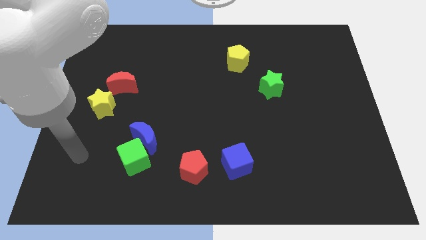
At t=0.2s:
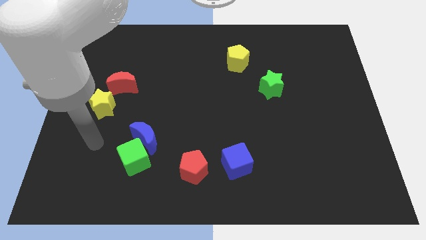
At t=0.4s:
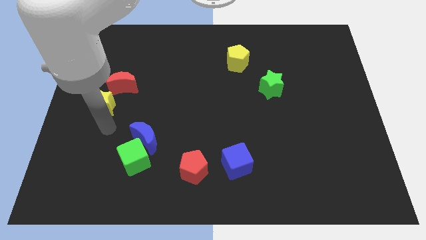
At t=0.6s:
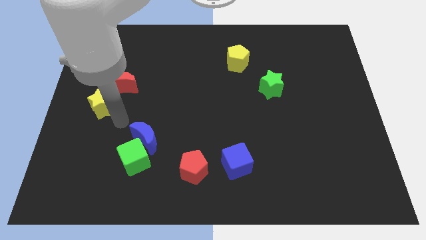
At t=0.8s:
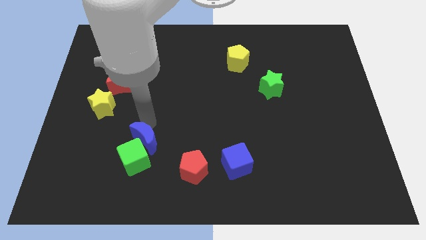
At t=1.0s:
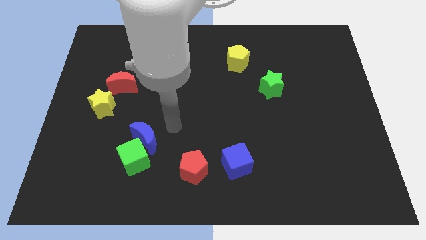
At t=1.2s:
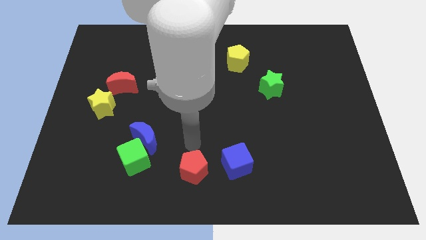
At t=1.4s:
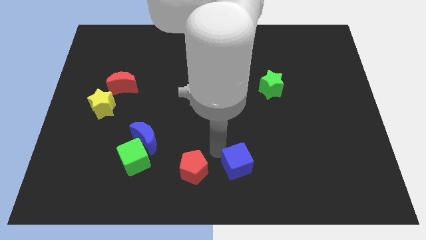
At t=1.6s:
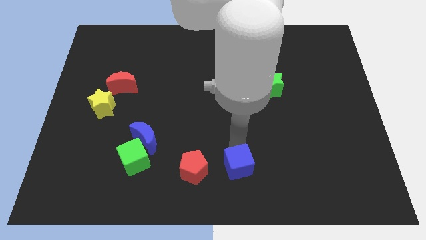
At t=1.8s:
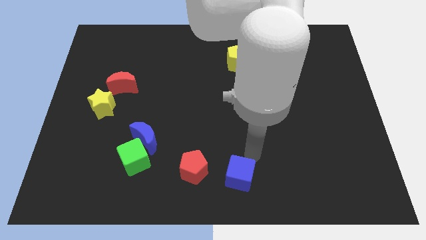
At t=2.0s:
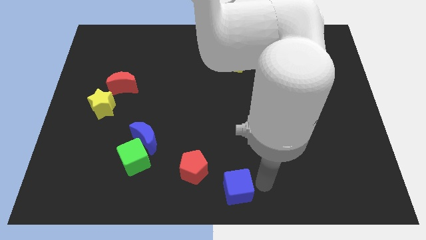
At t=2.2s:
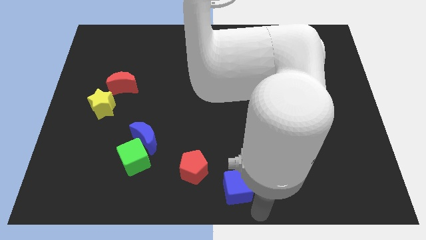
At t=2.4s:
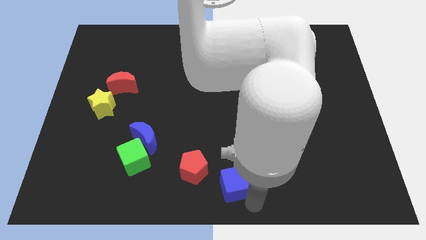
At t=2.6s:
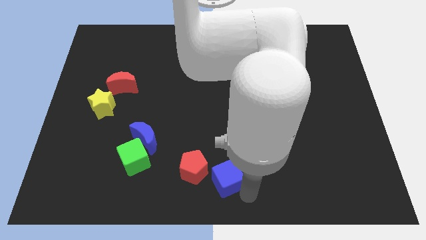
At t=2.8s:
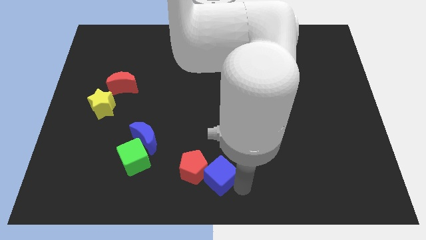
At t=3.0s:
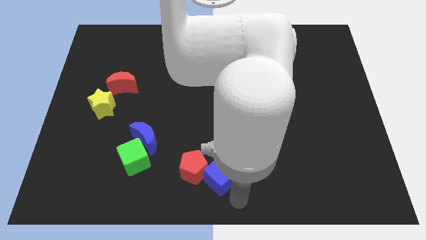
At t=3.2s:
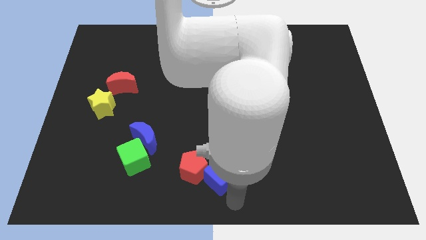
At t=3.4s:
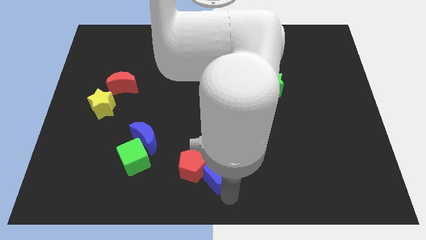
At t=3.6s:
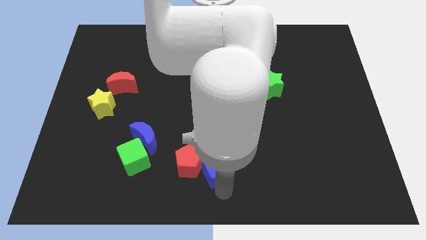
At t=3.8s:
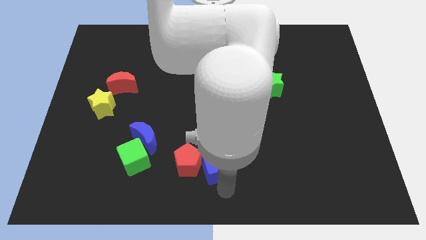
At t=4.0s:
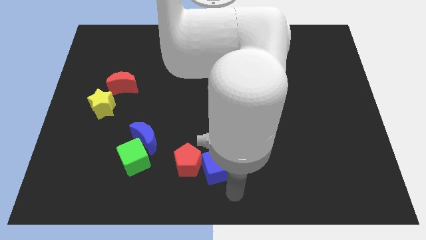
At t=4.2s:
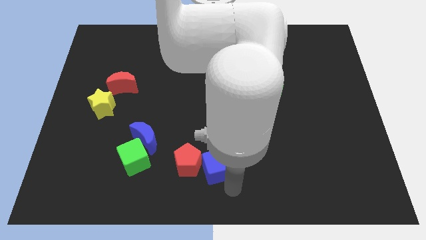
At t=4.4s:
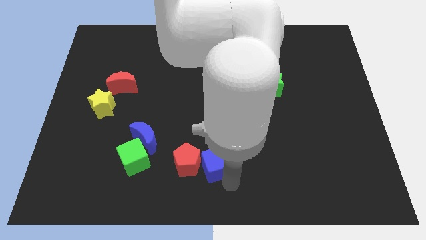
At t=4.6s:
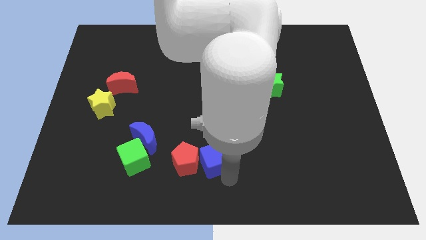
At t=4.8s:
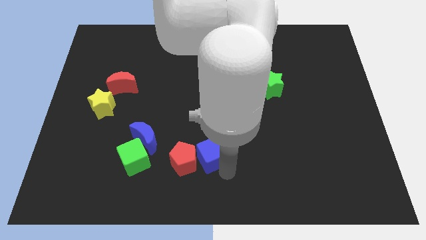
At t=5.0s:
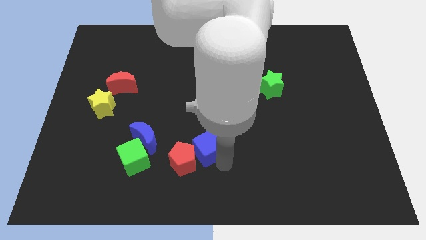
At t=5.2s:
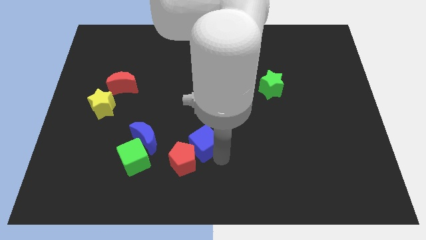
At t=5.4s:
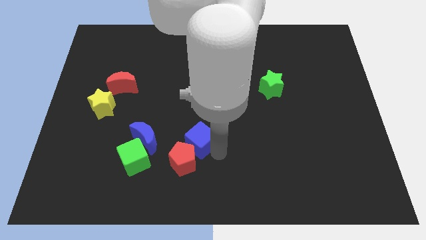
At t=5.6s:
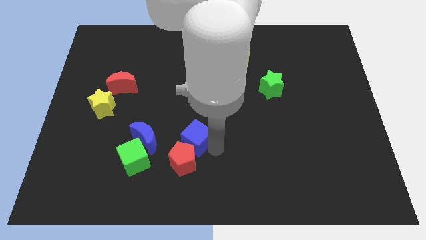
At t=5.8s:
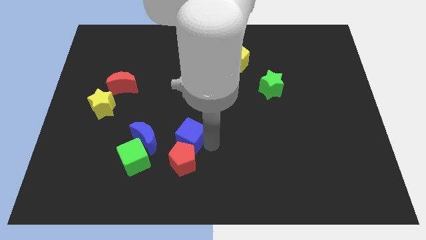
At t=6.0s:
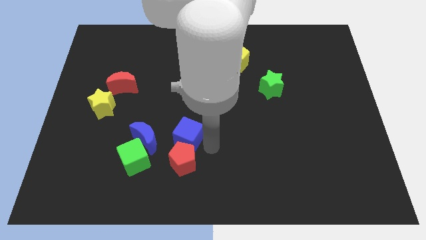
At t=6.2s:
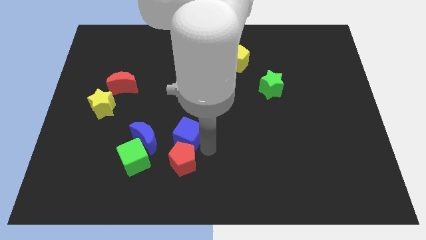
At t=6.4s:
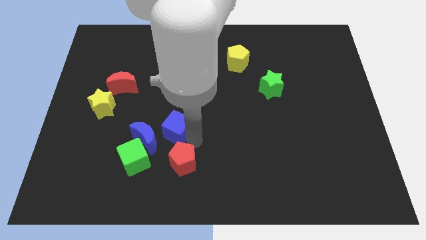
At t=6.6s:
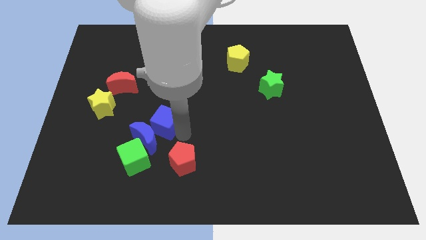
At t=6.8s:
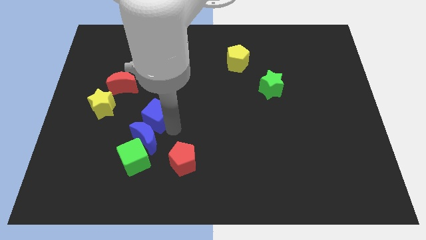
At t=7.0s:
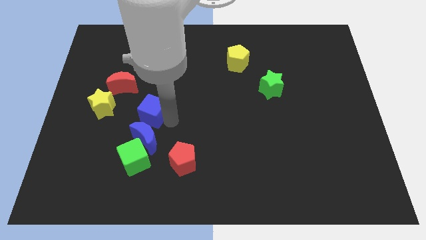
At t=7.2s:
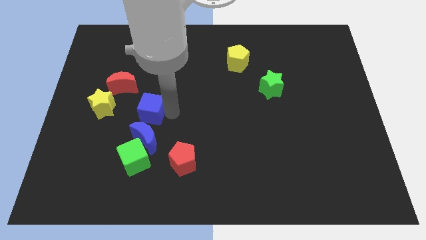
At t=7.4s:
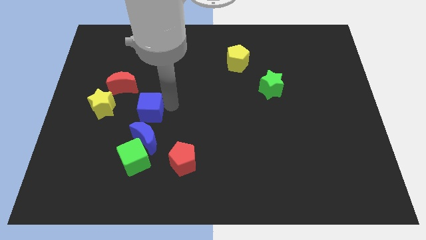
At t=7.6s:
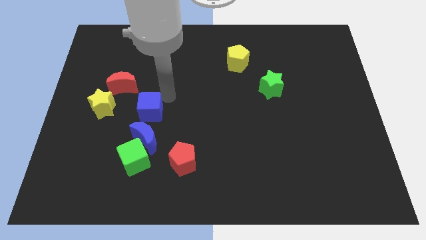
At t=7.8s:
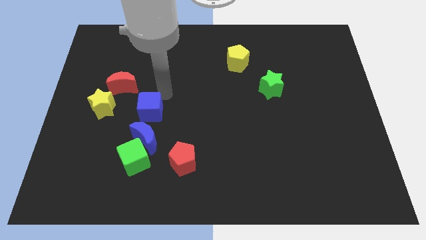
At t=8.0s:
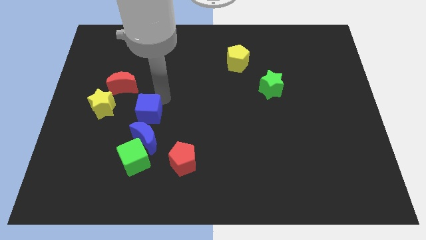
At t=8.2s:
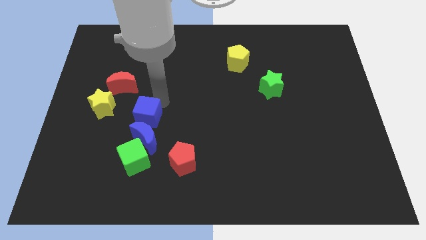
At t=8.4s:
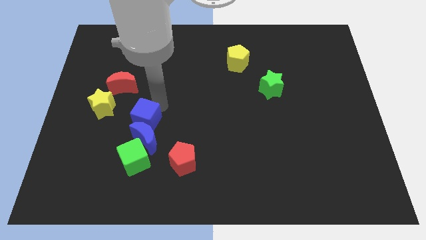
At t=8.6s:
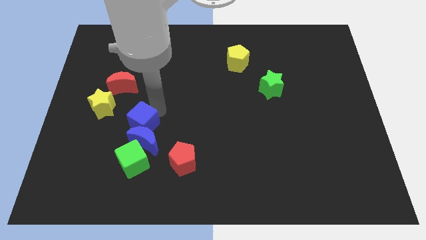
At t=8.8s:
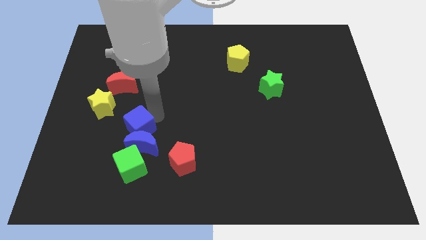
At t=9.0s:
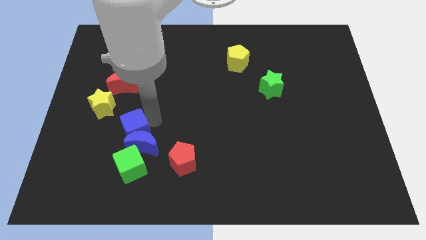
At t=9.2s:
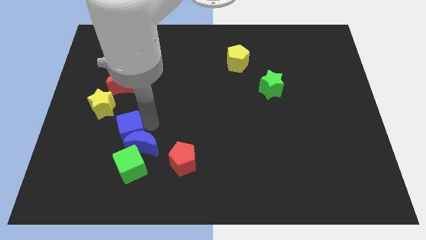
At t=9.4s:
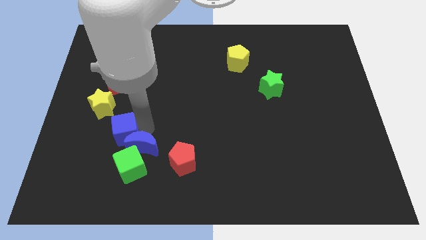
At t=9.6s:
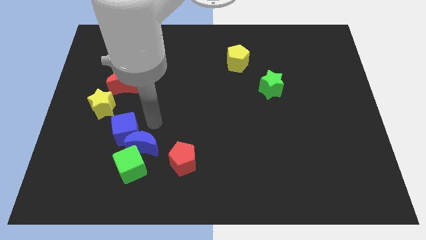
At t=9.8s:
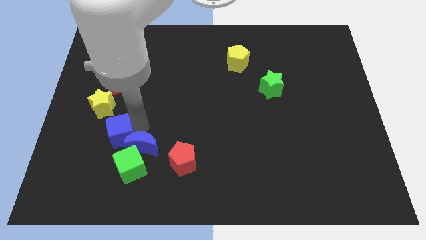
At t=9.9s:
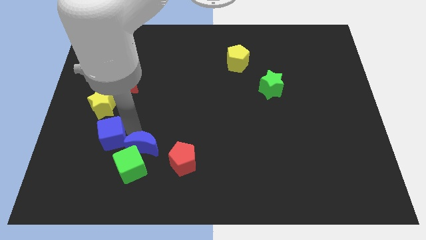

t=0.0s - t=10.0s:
move the blue cube to the bottom of the yellow star

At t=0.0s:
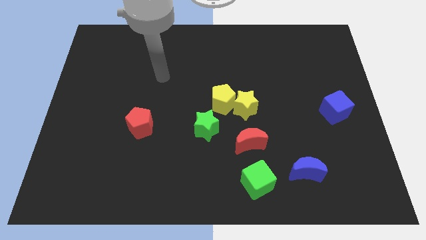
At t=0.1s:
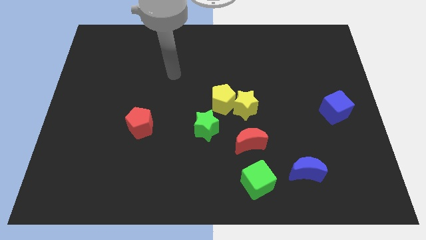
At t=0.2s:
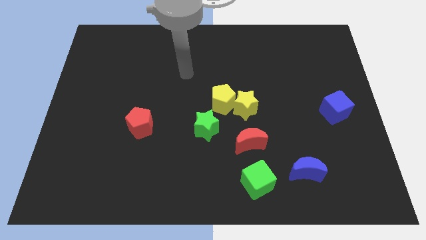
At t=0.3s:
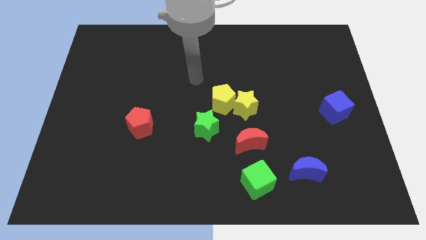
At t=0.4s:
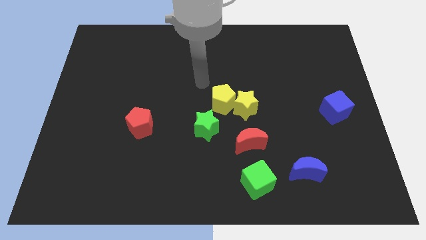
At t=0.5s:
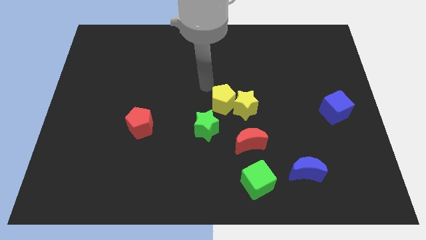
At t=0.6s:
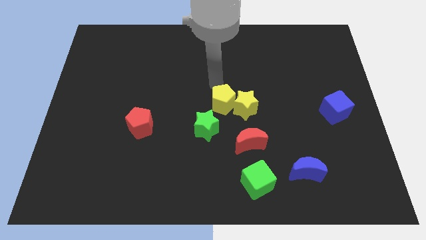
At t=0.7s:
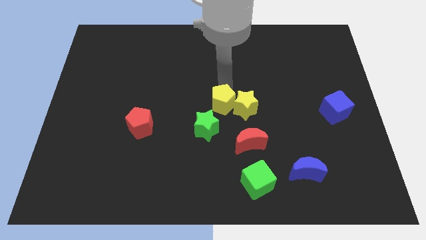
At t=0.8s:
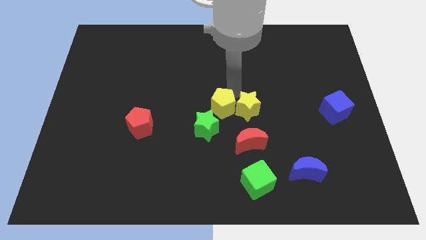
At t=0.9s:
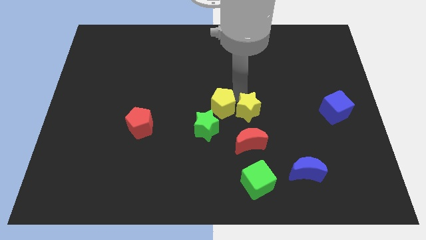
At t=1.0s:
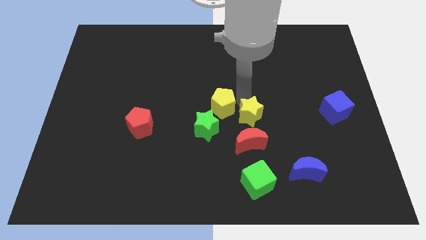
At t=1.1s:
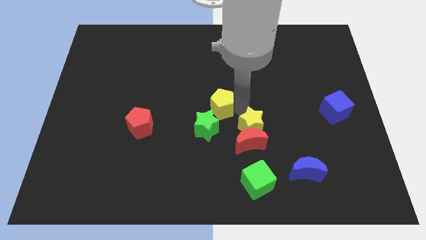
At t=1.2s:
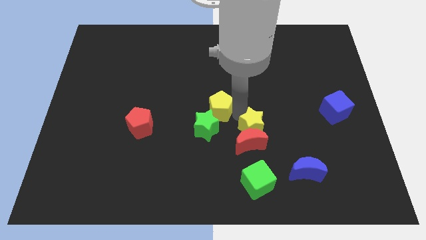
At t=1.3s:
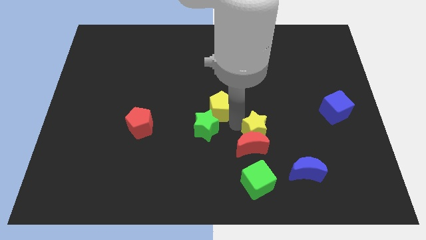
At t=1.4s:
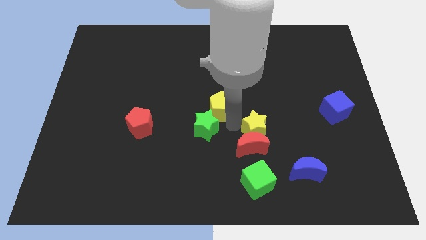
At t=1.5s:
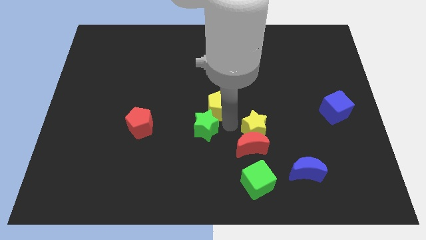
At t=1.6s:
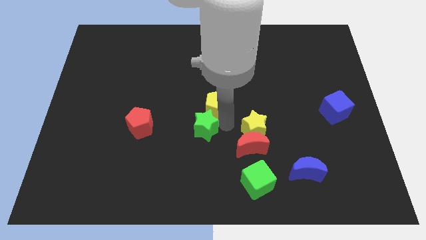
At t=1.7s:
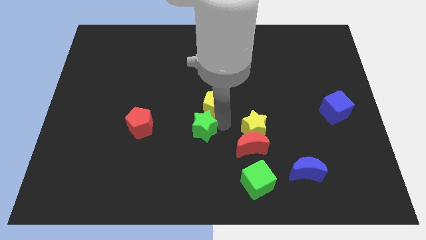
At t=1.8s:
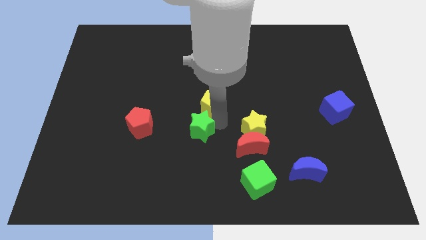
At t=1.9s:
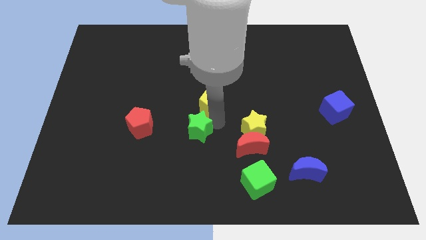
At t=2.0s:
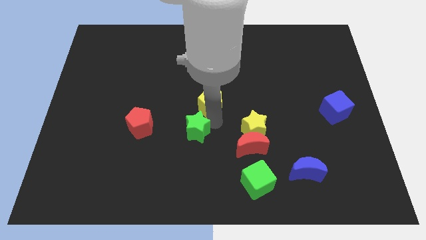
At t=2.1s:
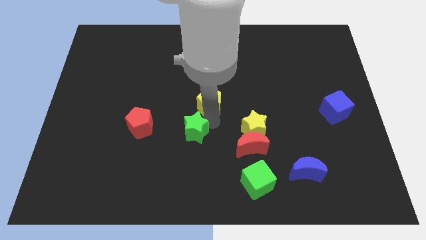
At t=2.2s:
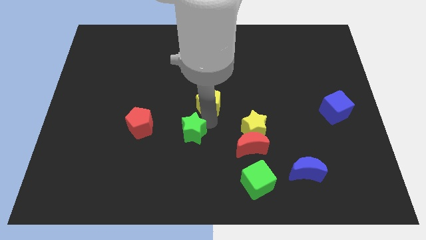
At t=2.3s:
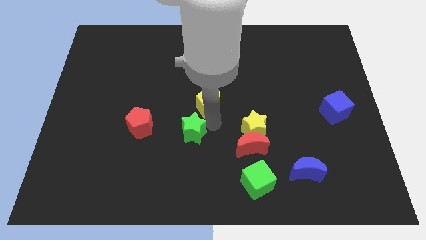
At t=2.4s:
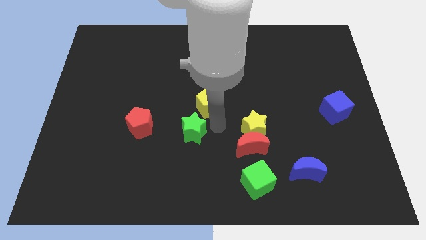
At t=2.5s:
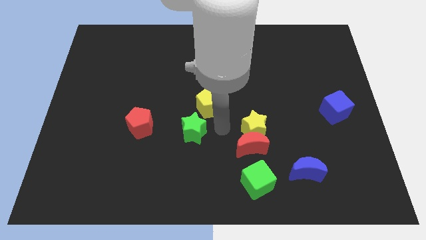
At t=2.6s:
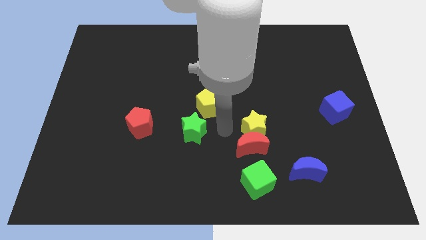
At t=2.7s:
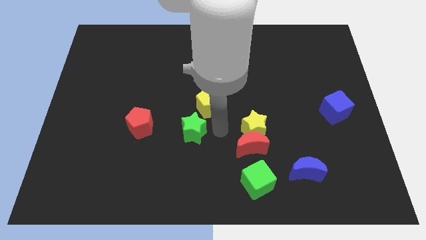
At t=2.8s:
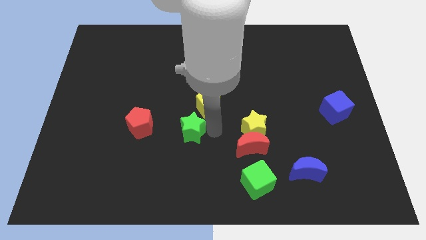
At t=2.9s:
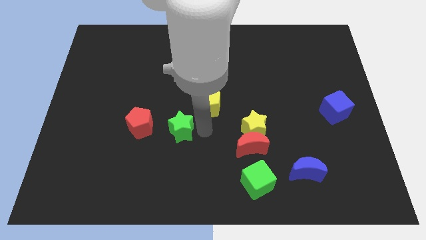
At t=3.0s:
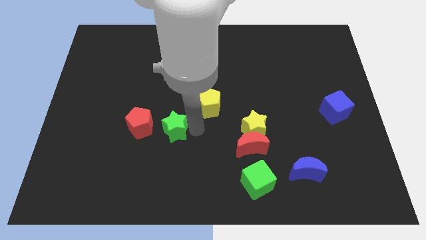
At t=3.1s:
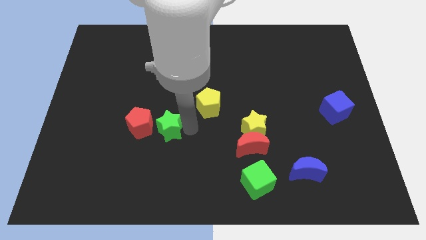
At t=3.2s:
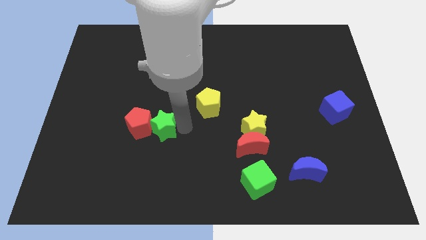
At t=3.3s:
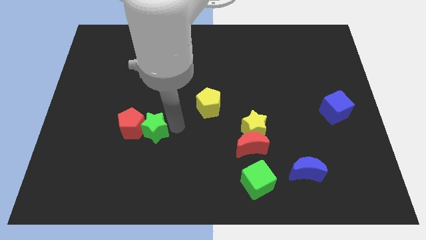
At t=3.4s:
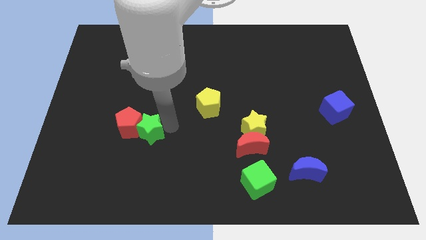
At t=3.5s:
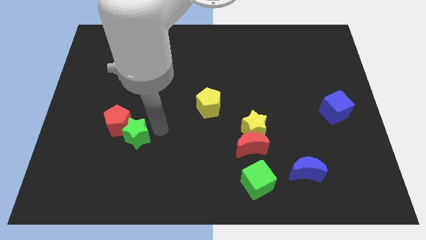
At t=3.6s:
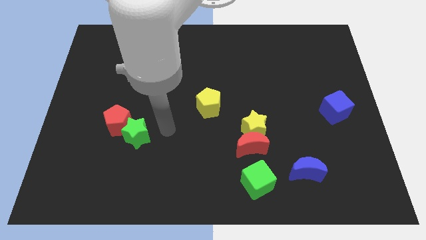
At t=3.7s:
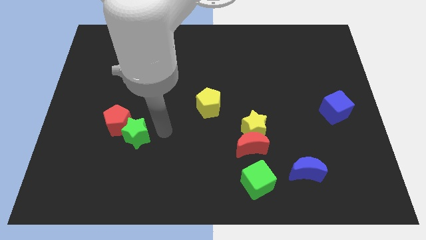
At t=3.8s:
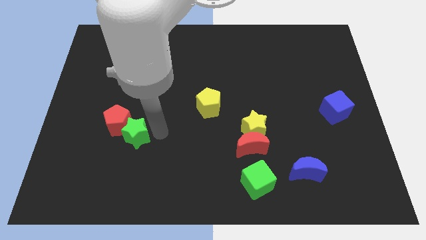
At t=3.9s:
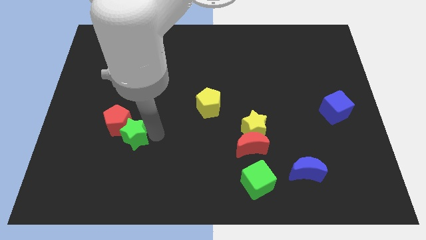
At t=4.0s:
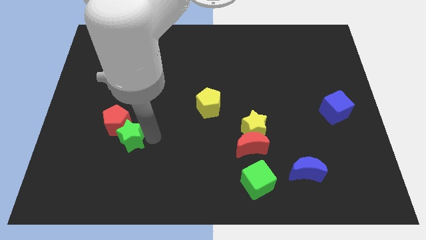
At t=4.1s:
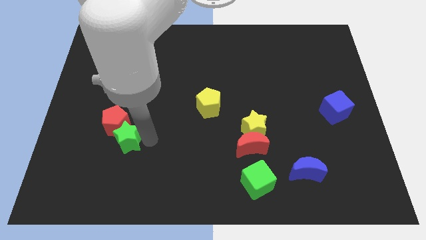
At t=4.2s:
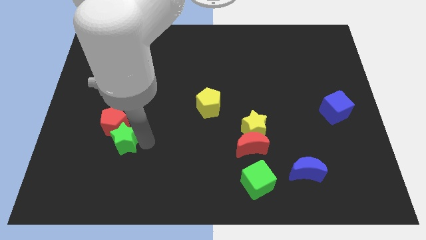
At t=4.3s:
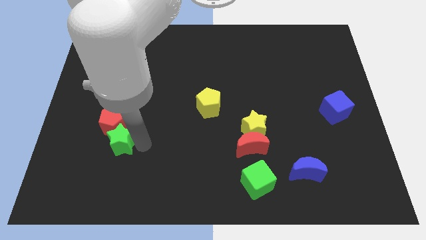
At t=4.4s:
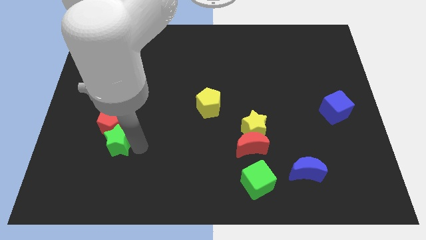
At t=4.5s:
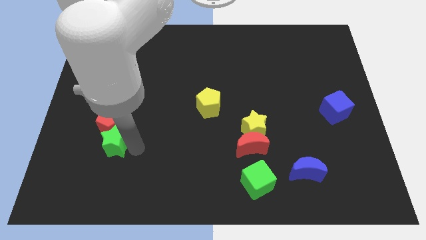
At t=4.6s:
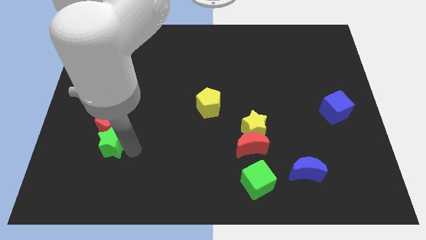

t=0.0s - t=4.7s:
put the green star to the bottom left side of the red pentagon
